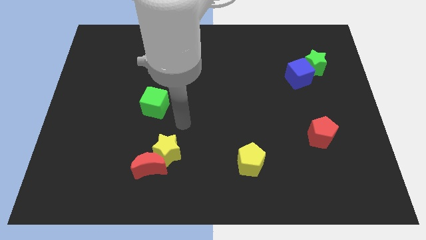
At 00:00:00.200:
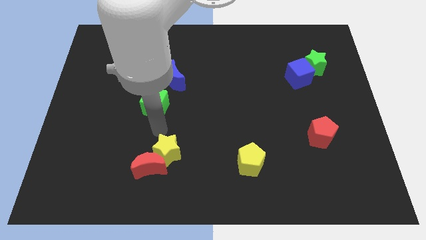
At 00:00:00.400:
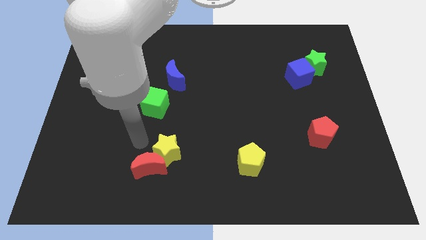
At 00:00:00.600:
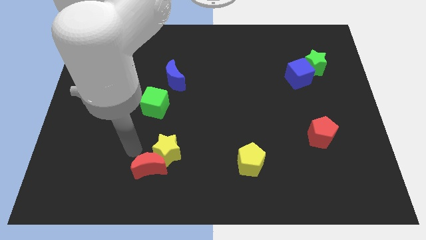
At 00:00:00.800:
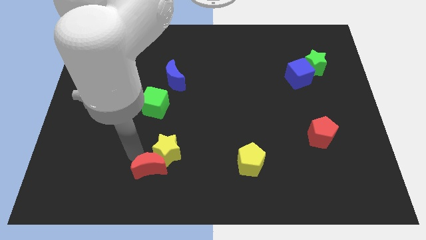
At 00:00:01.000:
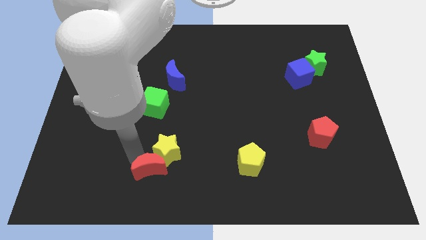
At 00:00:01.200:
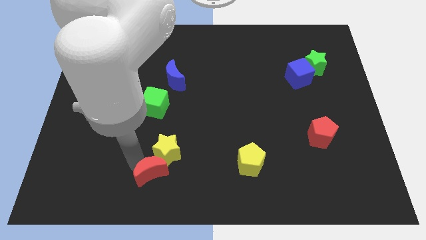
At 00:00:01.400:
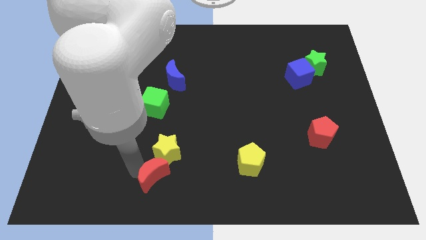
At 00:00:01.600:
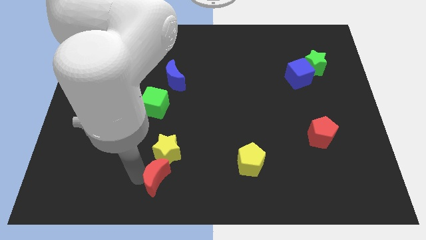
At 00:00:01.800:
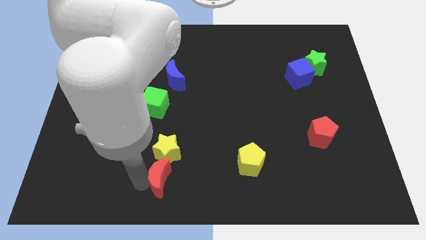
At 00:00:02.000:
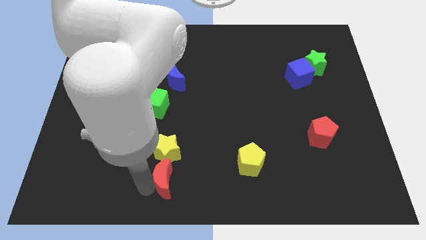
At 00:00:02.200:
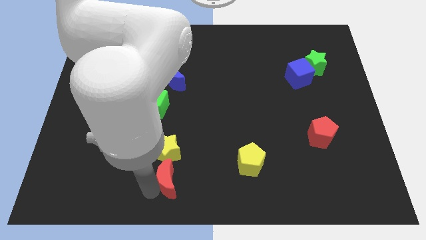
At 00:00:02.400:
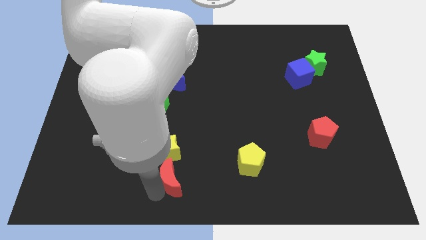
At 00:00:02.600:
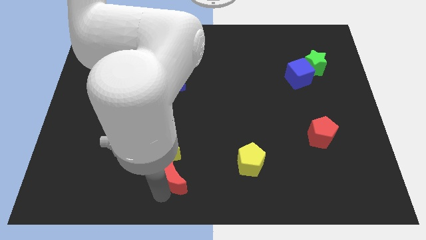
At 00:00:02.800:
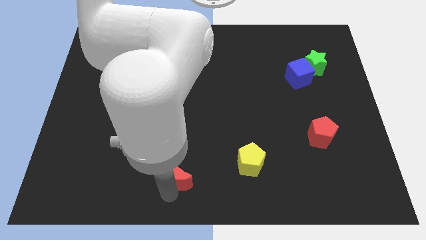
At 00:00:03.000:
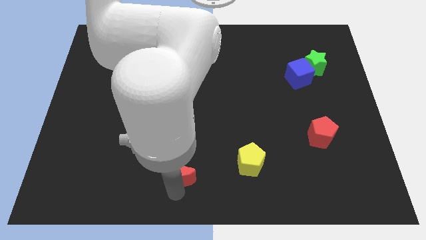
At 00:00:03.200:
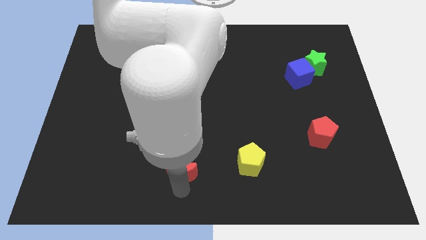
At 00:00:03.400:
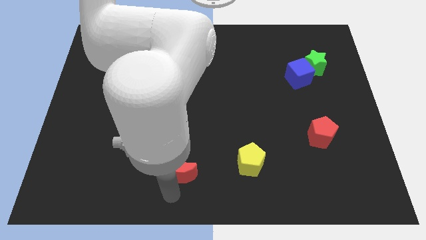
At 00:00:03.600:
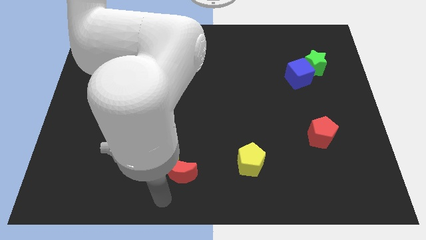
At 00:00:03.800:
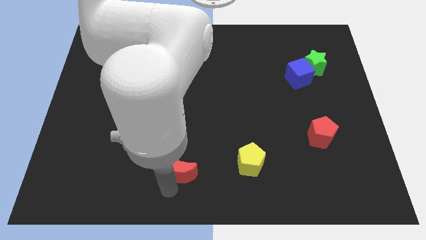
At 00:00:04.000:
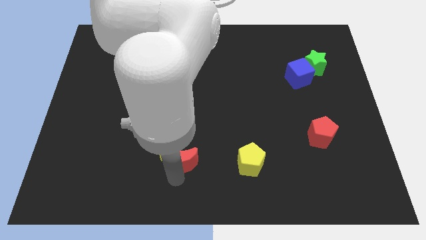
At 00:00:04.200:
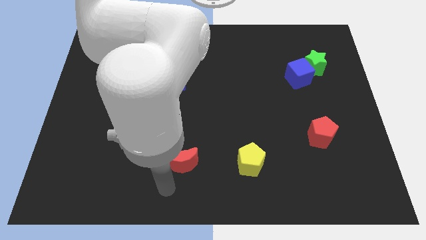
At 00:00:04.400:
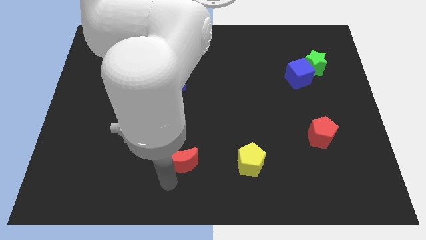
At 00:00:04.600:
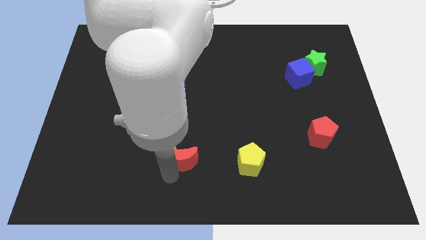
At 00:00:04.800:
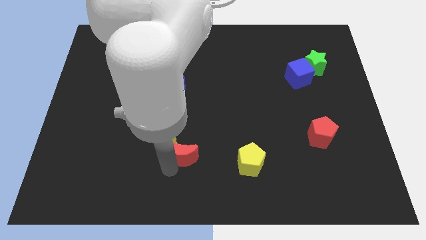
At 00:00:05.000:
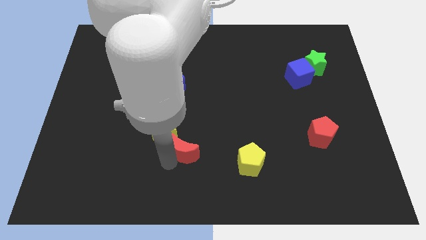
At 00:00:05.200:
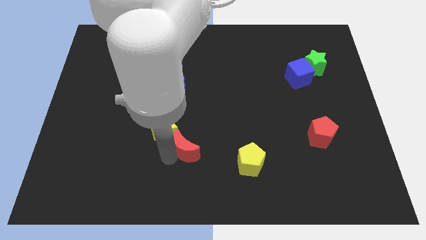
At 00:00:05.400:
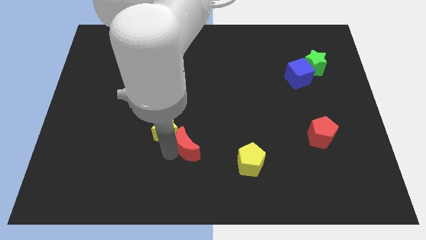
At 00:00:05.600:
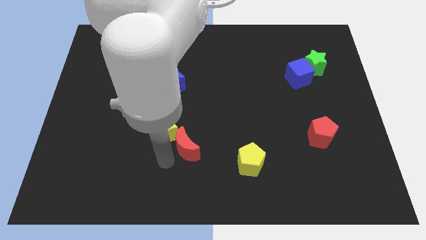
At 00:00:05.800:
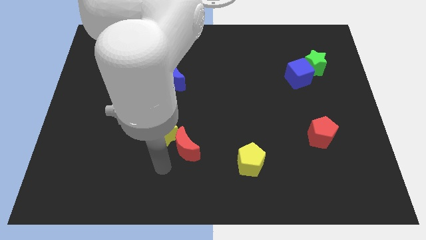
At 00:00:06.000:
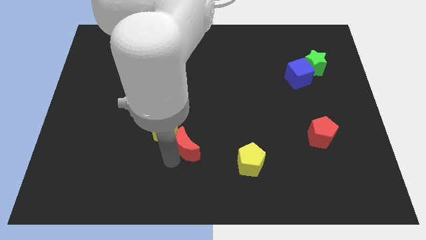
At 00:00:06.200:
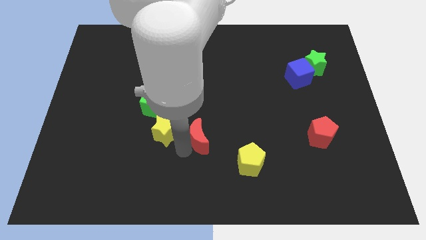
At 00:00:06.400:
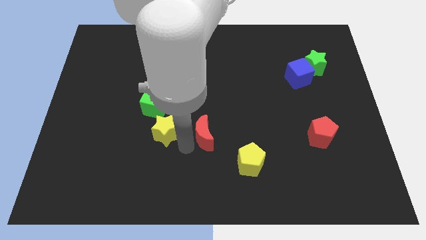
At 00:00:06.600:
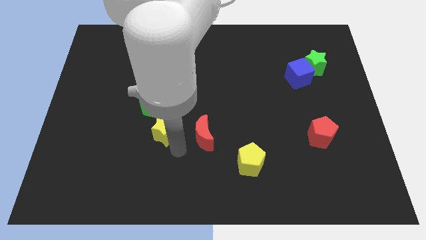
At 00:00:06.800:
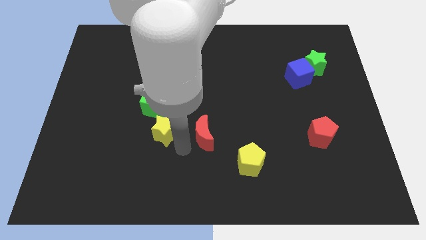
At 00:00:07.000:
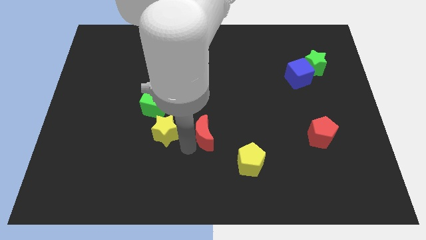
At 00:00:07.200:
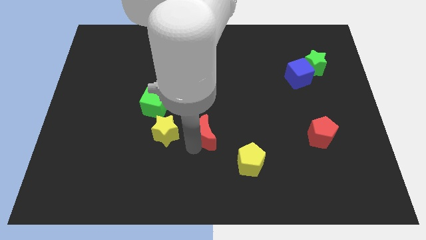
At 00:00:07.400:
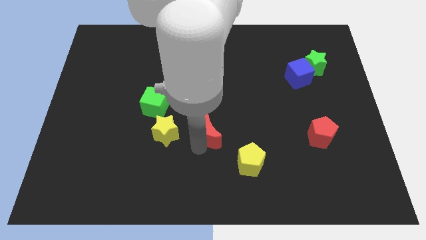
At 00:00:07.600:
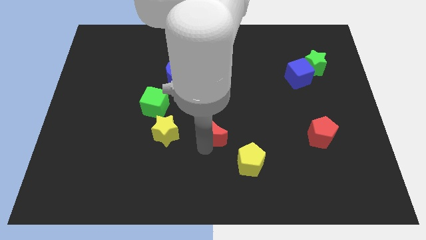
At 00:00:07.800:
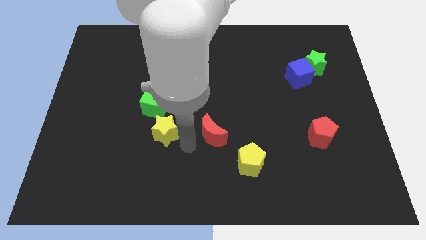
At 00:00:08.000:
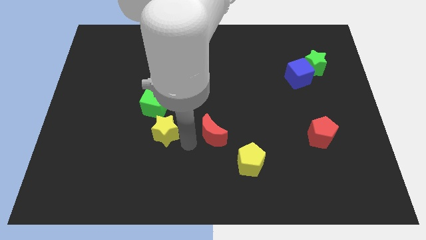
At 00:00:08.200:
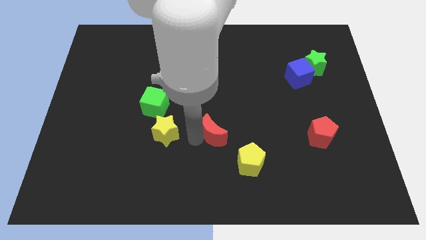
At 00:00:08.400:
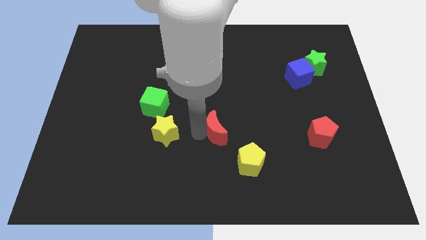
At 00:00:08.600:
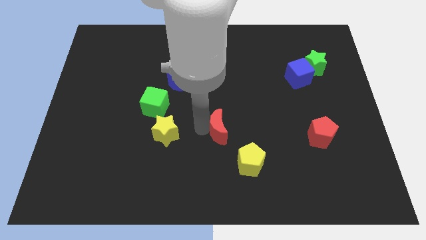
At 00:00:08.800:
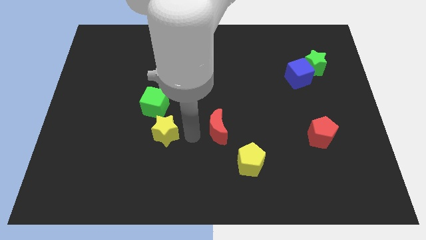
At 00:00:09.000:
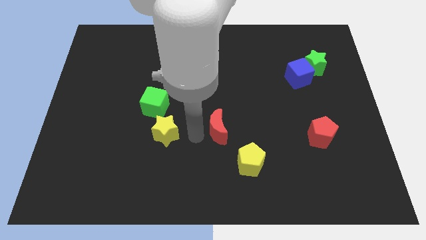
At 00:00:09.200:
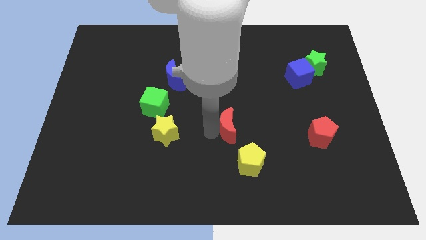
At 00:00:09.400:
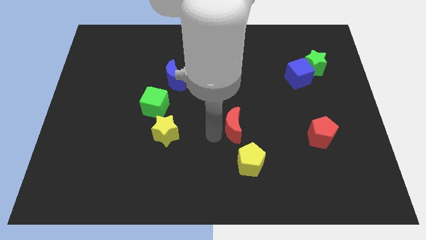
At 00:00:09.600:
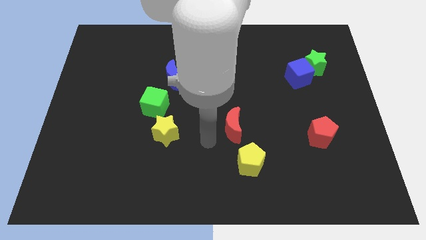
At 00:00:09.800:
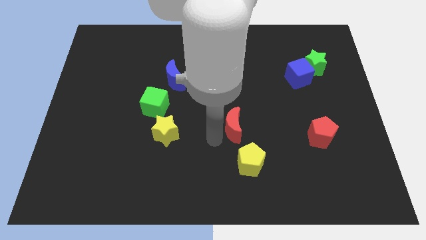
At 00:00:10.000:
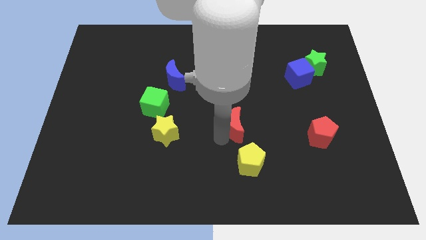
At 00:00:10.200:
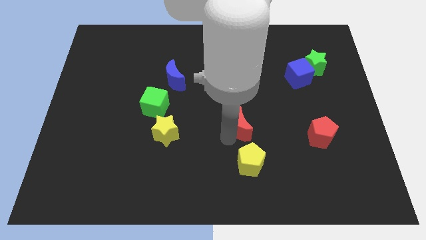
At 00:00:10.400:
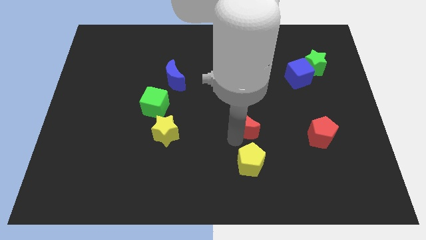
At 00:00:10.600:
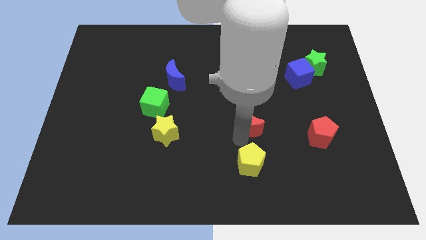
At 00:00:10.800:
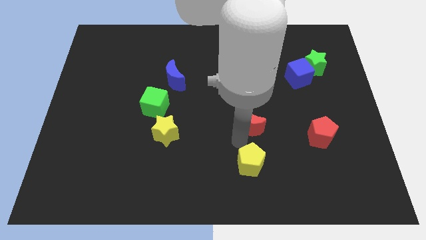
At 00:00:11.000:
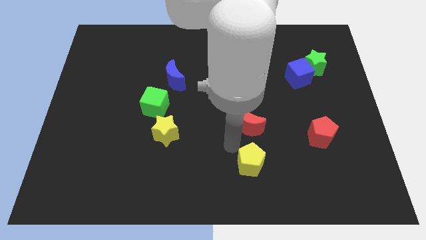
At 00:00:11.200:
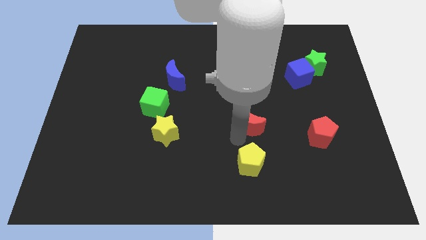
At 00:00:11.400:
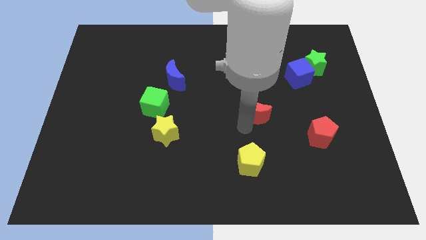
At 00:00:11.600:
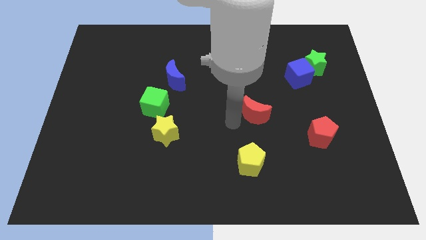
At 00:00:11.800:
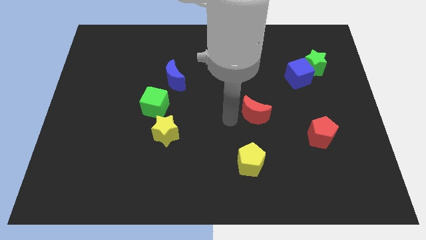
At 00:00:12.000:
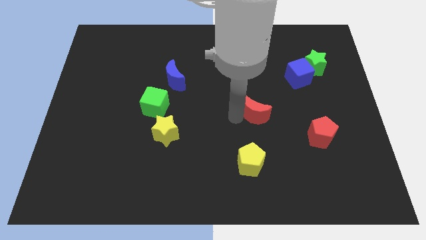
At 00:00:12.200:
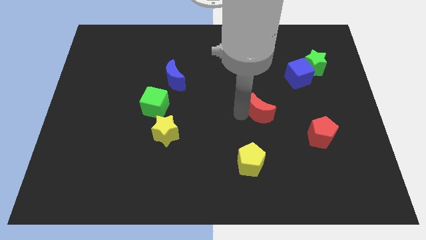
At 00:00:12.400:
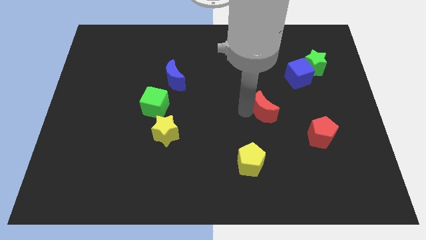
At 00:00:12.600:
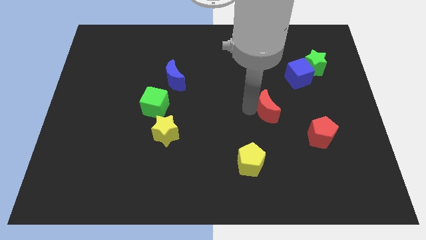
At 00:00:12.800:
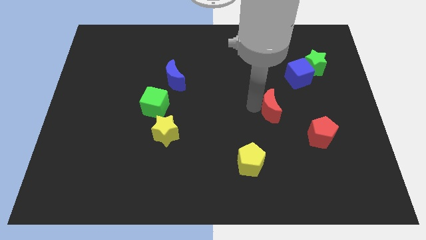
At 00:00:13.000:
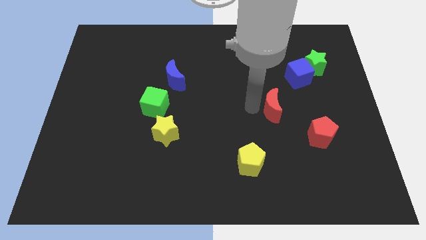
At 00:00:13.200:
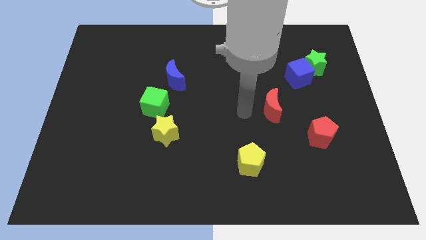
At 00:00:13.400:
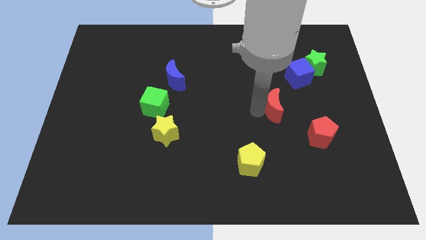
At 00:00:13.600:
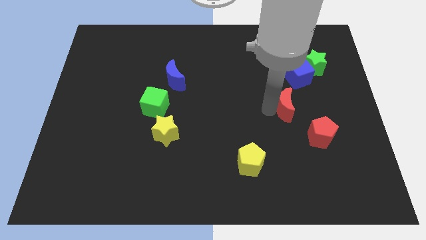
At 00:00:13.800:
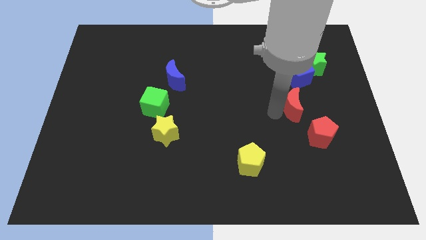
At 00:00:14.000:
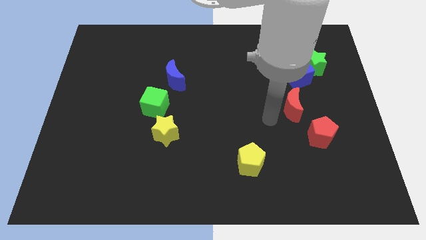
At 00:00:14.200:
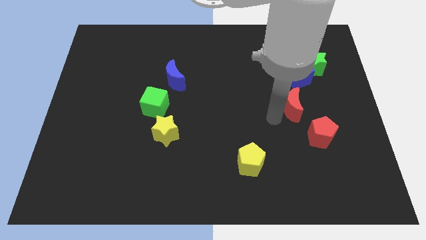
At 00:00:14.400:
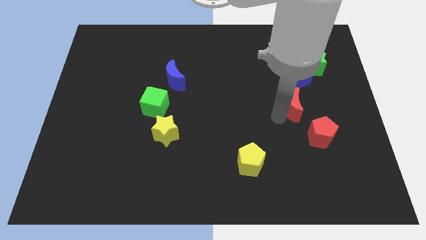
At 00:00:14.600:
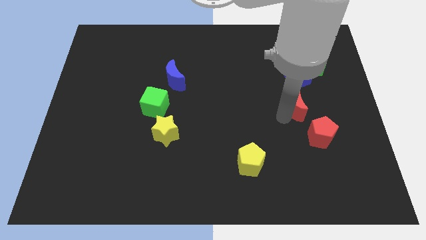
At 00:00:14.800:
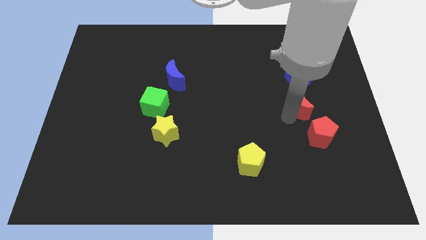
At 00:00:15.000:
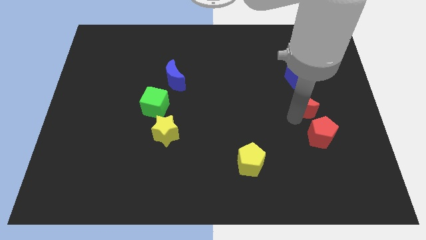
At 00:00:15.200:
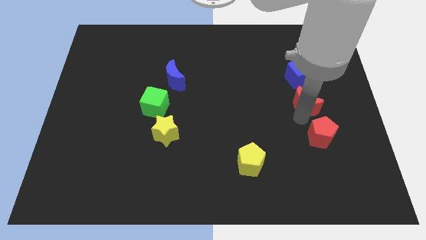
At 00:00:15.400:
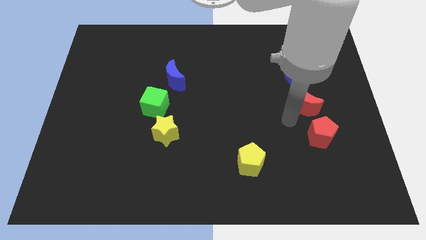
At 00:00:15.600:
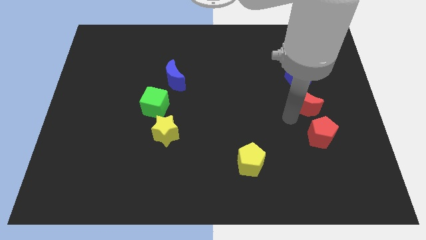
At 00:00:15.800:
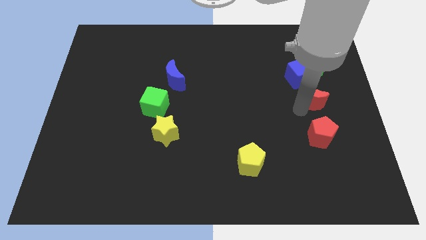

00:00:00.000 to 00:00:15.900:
push the red moon diagonally down and to the right of the blue cube

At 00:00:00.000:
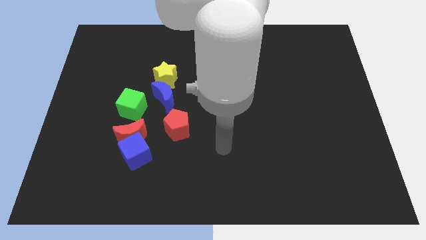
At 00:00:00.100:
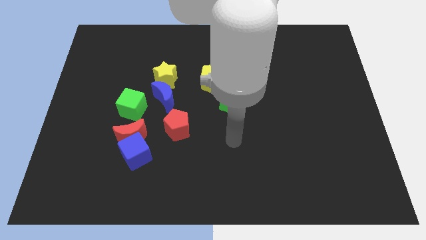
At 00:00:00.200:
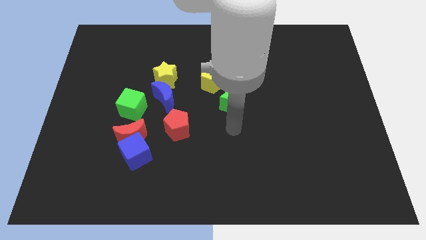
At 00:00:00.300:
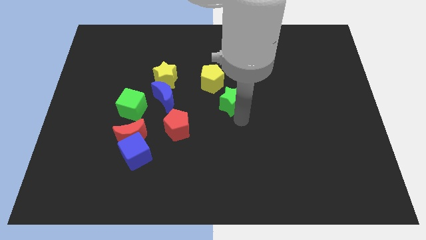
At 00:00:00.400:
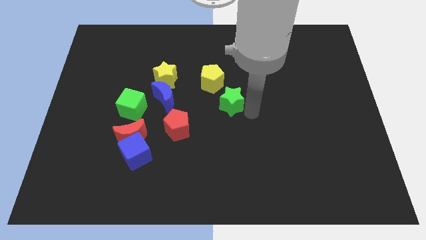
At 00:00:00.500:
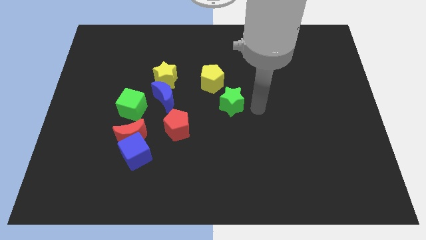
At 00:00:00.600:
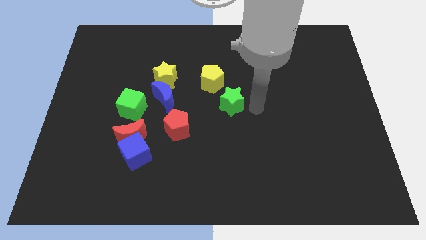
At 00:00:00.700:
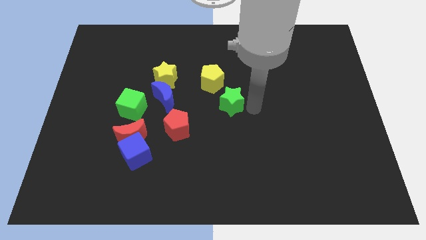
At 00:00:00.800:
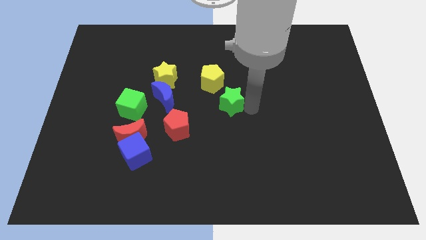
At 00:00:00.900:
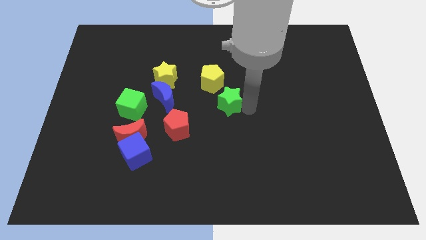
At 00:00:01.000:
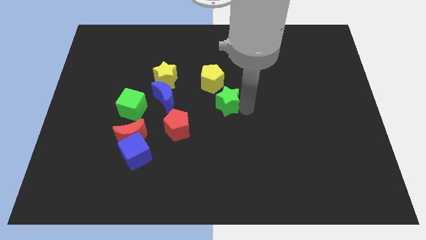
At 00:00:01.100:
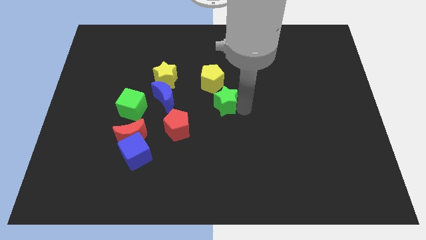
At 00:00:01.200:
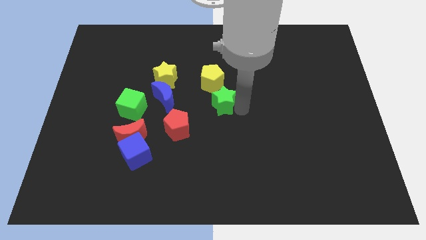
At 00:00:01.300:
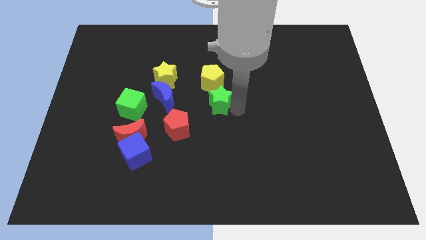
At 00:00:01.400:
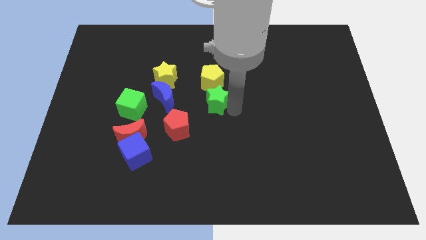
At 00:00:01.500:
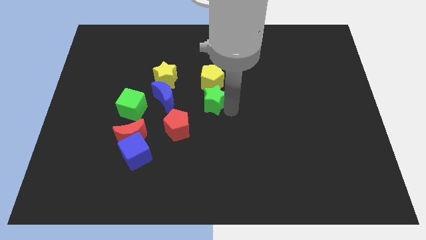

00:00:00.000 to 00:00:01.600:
put the green star diagonally down and to the left of the yellow pentagon
